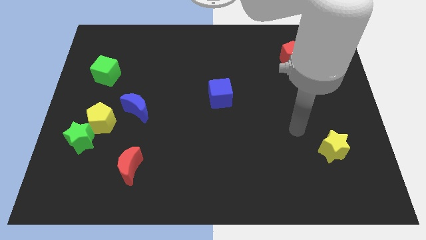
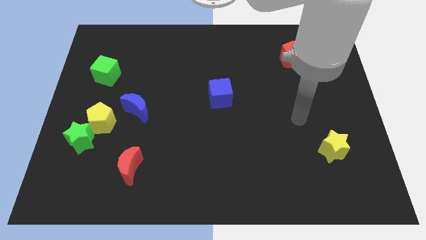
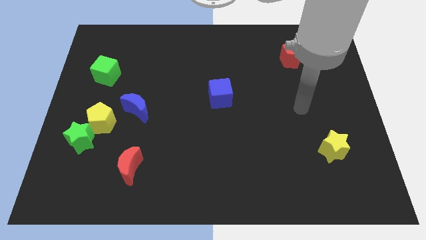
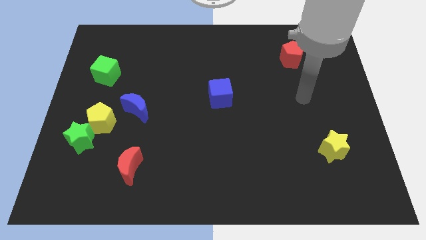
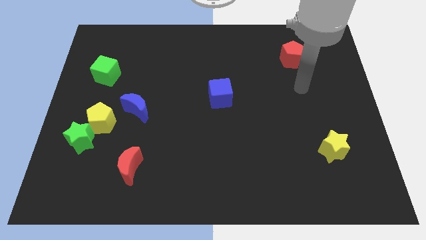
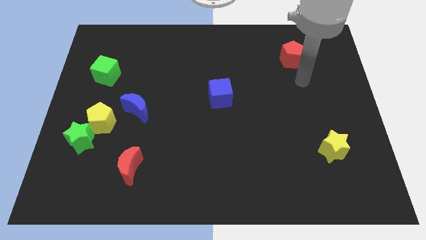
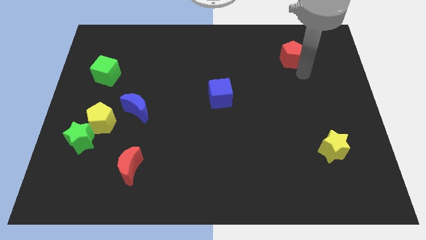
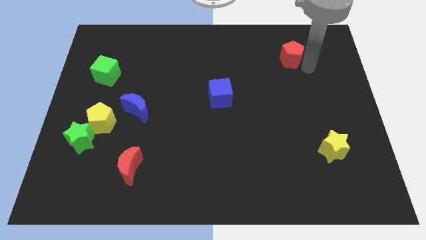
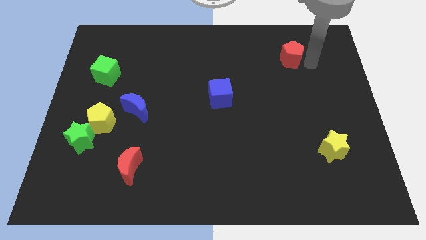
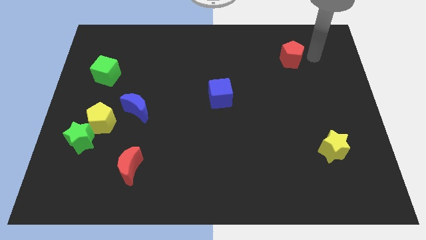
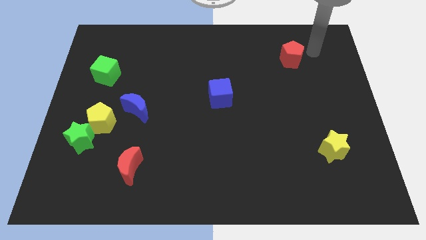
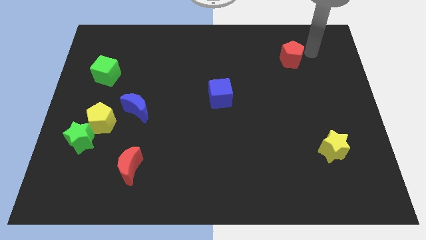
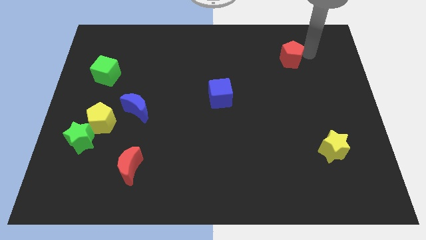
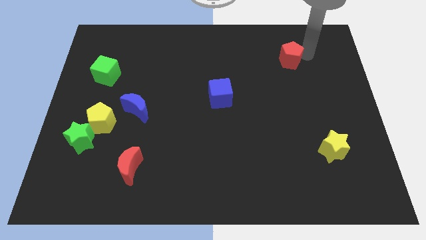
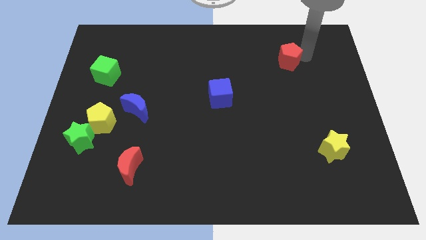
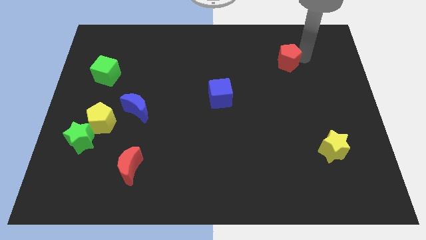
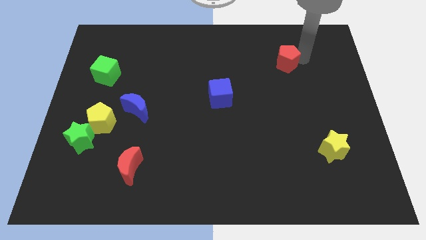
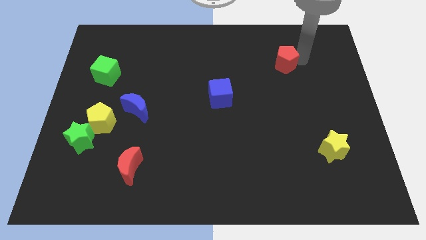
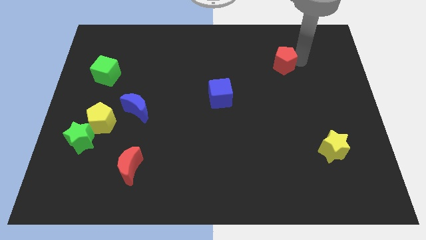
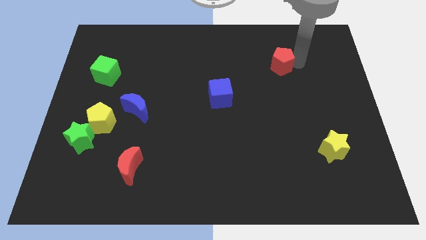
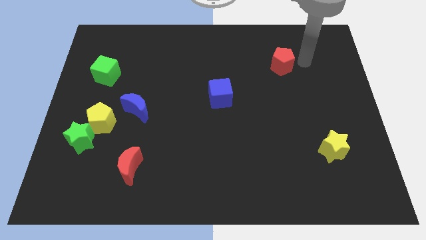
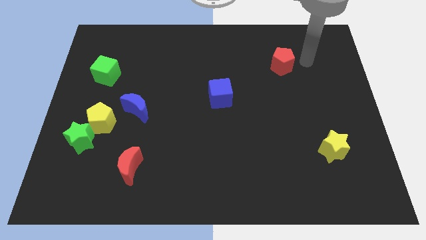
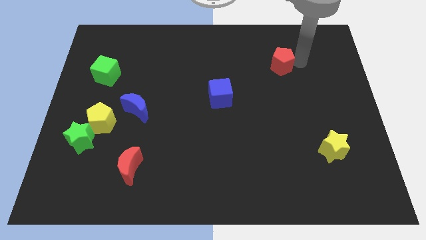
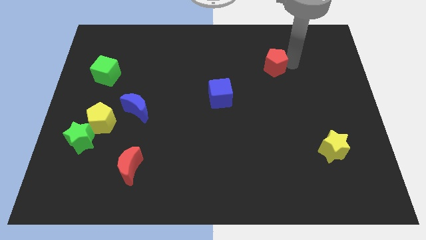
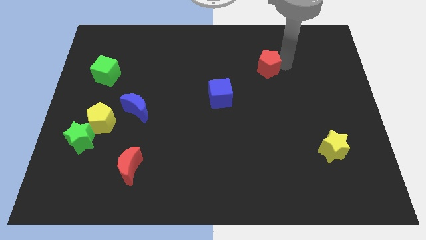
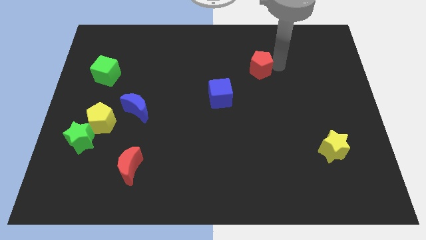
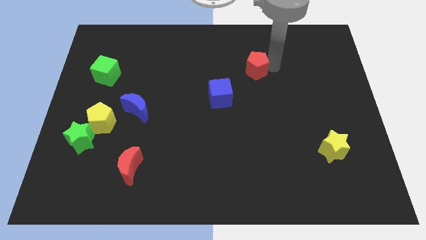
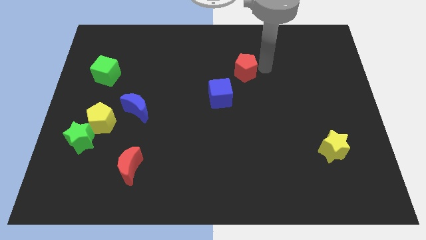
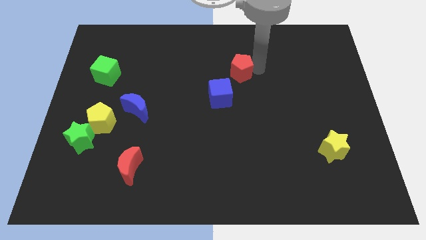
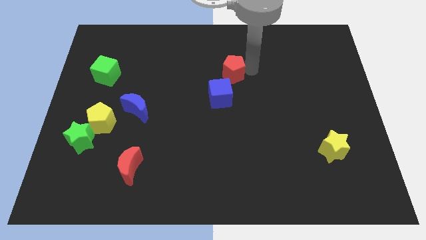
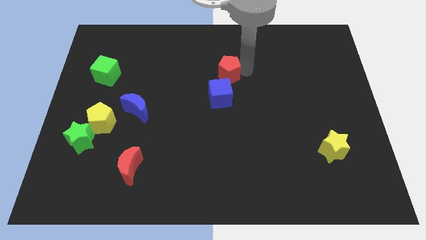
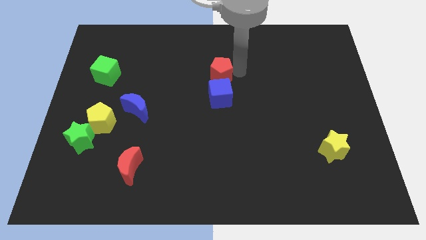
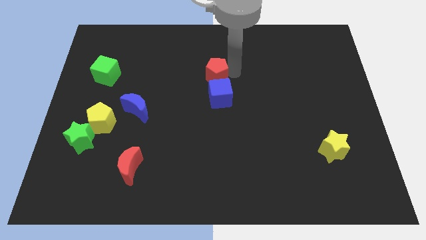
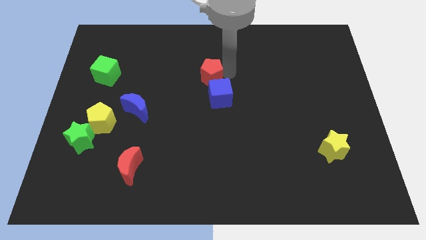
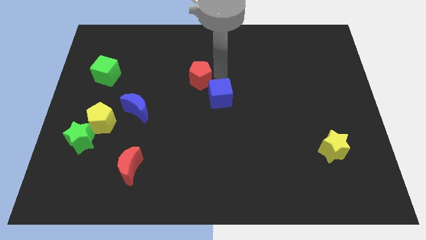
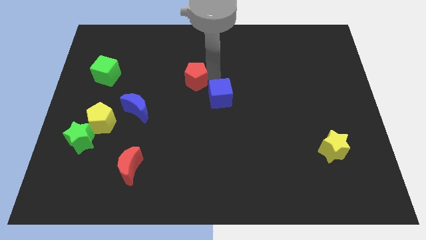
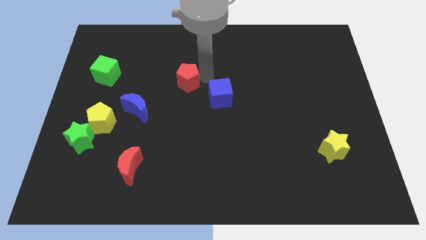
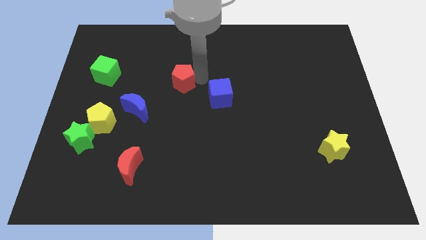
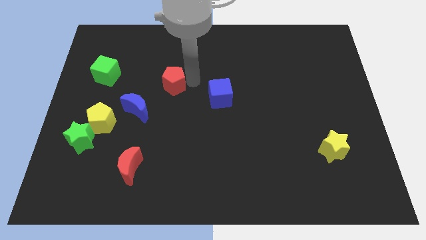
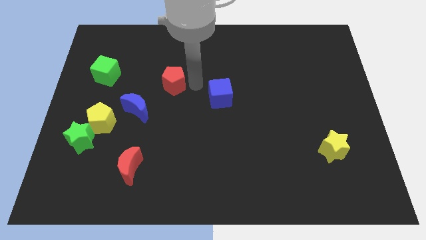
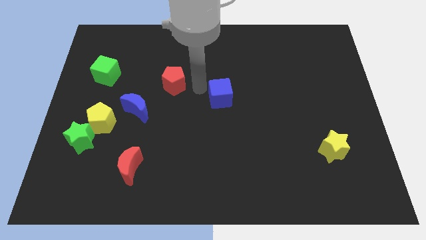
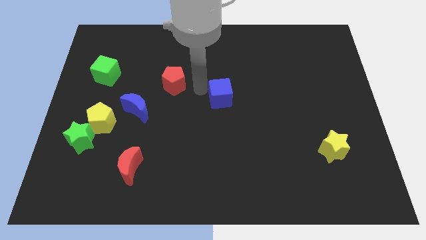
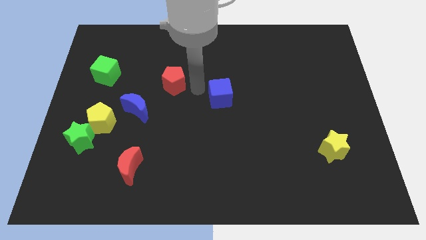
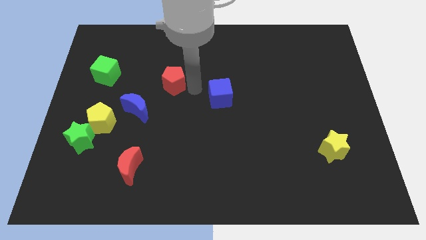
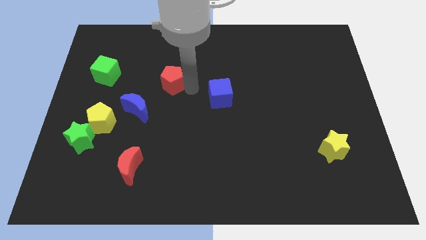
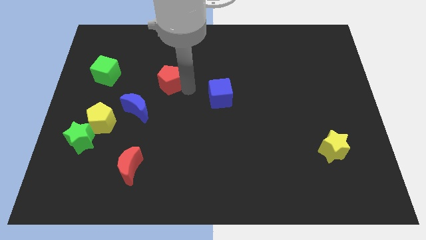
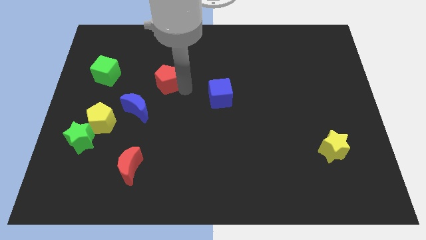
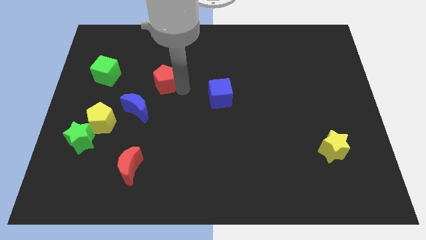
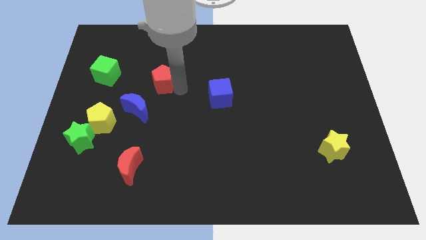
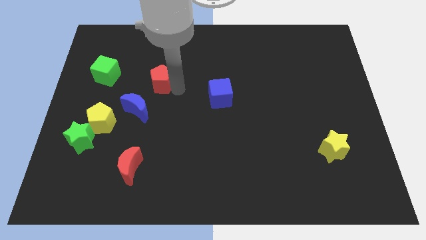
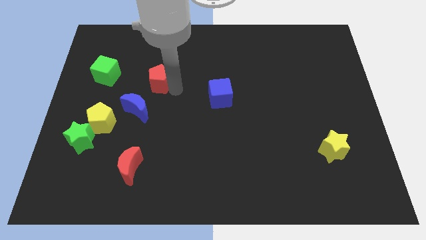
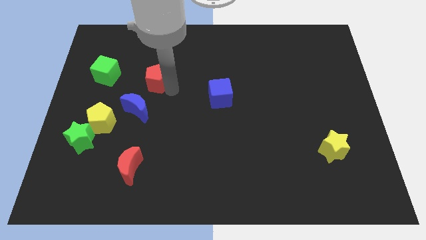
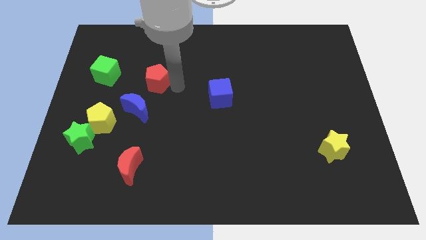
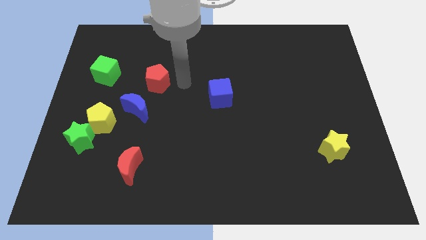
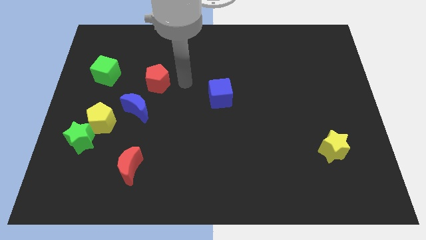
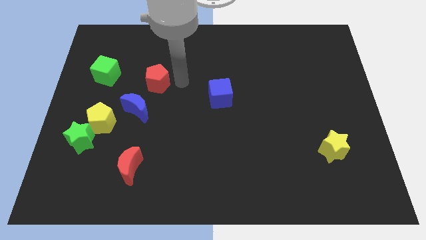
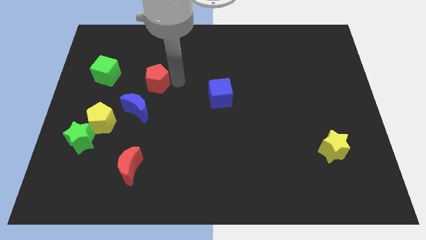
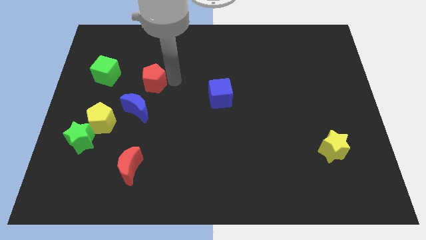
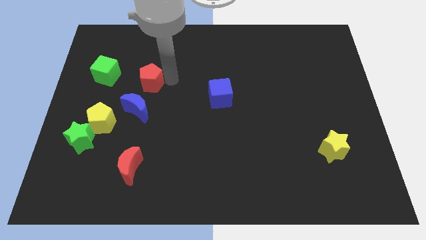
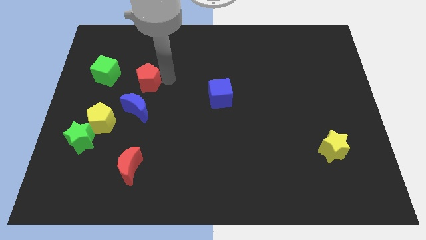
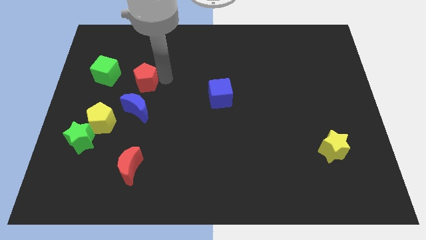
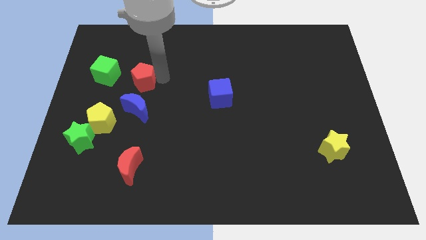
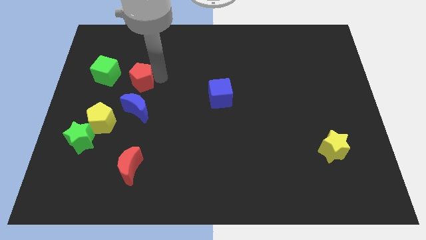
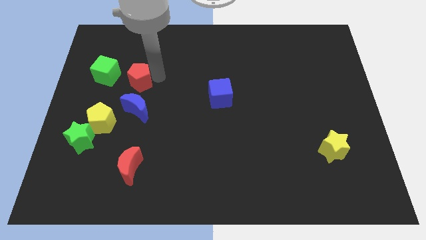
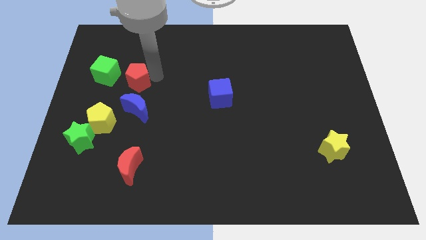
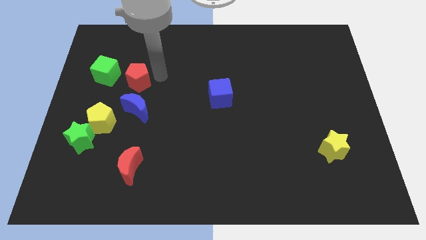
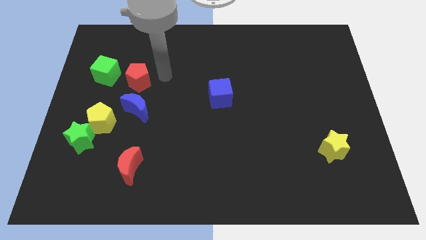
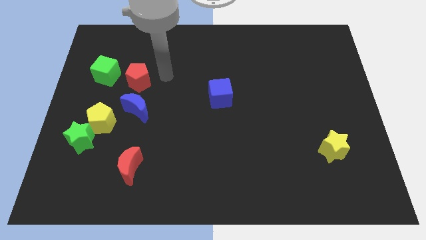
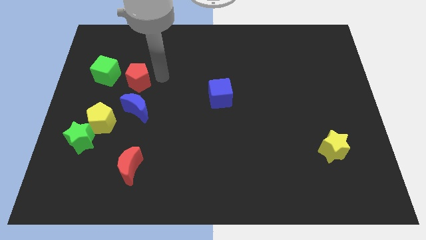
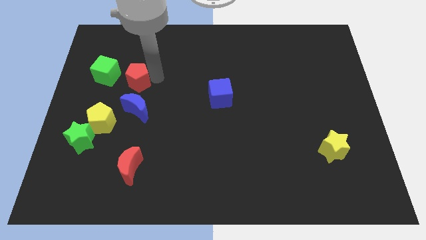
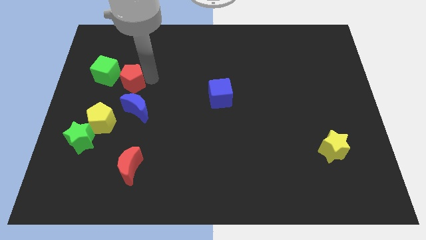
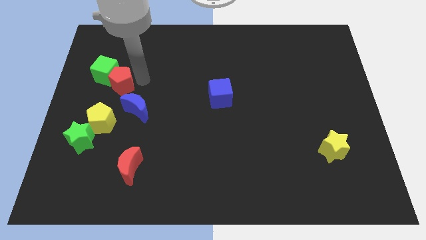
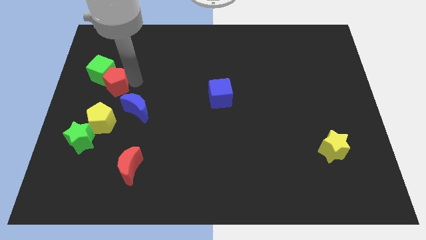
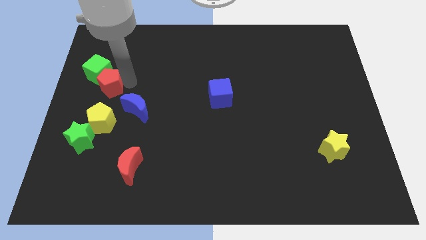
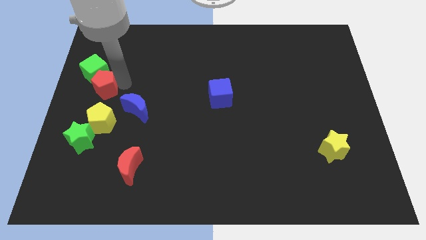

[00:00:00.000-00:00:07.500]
push the red pentagon to the center left
